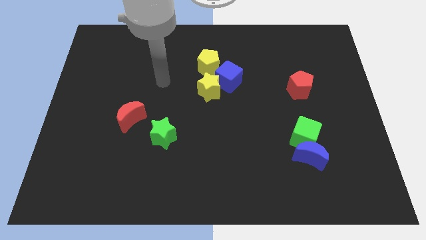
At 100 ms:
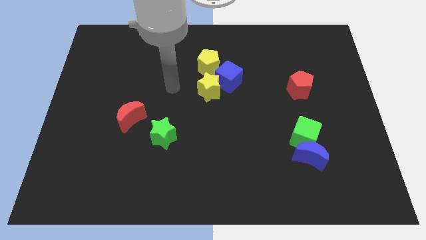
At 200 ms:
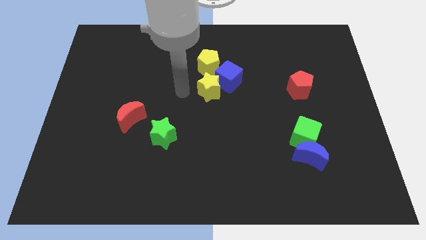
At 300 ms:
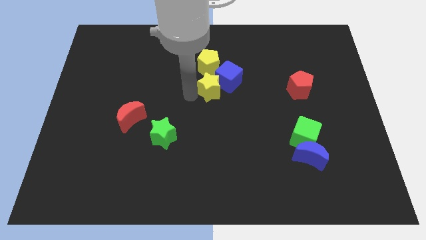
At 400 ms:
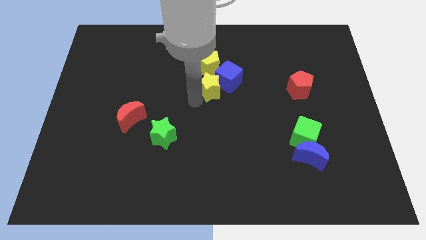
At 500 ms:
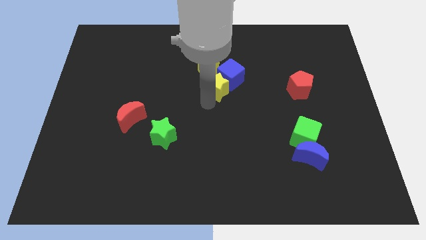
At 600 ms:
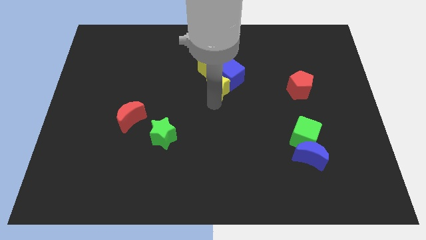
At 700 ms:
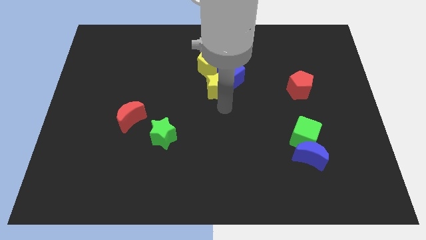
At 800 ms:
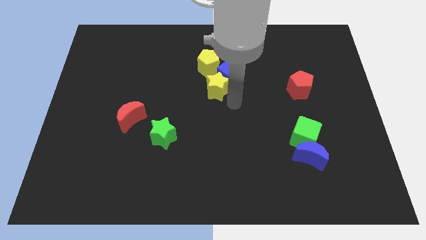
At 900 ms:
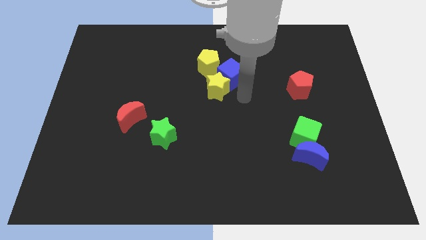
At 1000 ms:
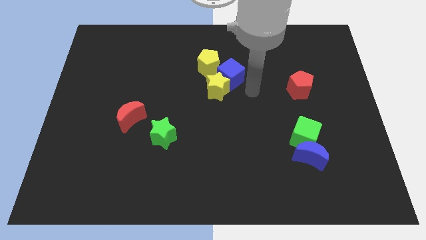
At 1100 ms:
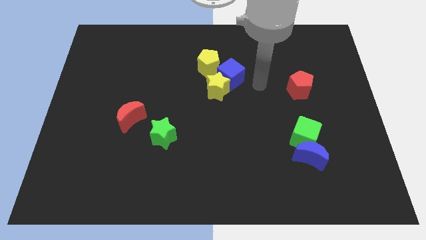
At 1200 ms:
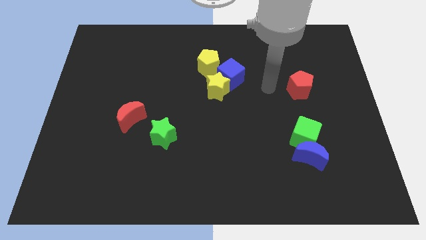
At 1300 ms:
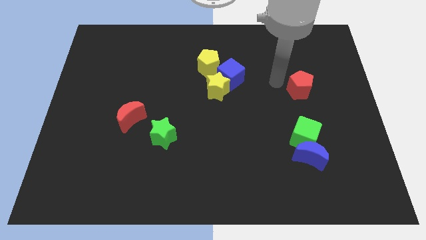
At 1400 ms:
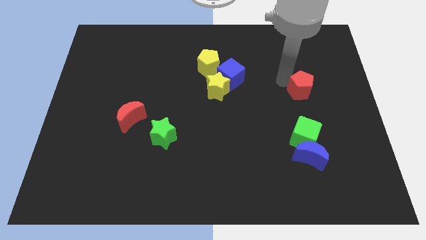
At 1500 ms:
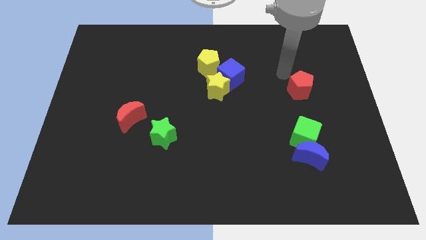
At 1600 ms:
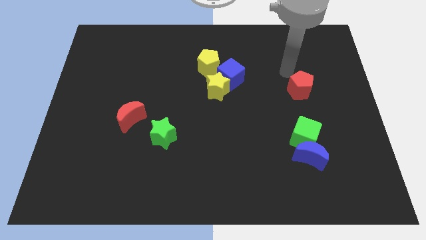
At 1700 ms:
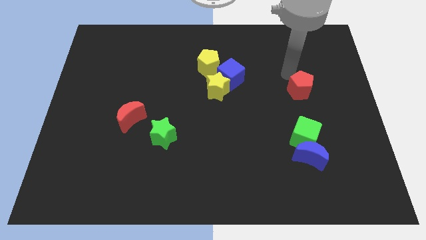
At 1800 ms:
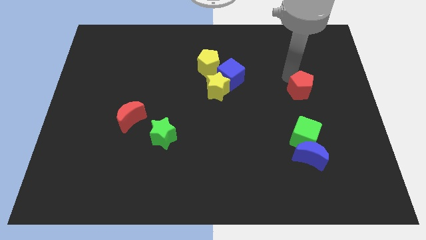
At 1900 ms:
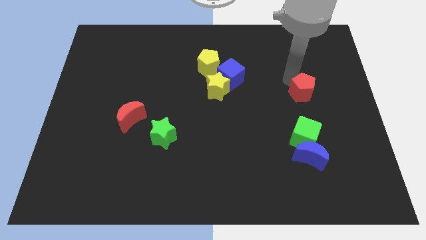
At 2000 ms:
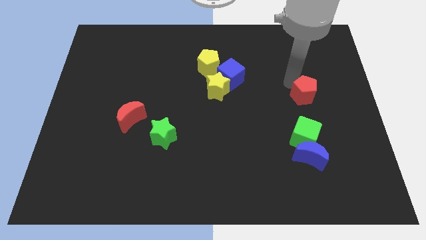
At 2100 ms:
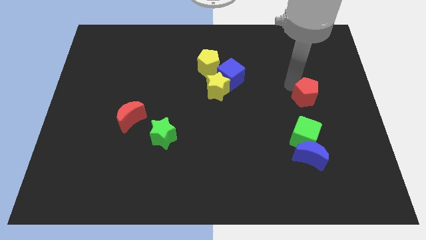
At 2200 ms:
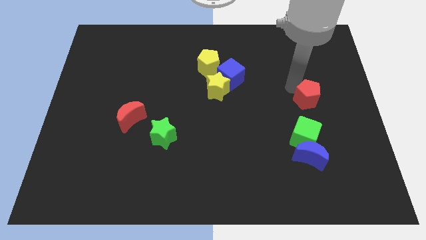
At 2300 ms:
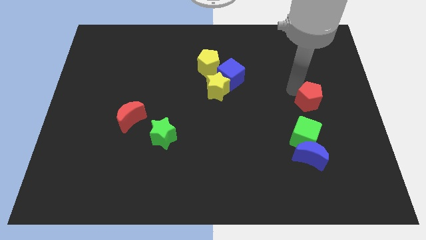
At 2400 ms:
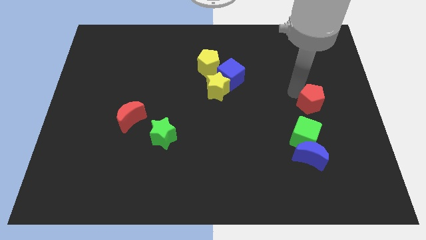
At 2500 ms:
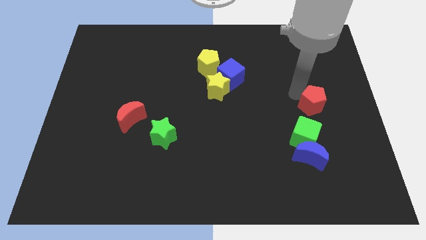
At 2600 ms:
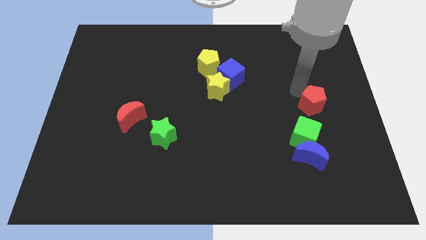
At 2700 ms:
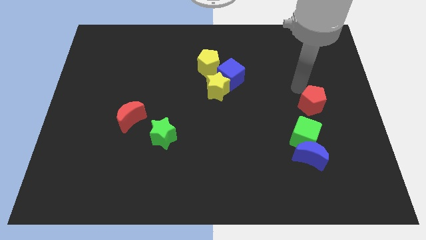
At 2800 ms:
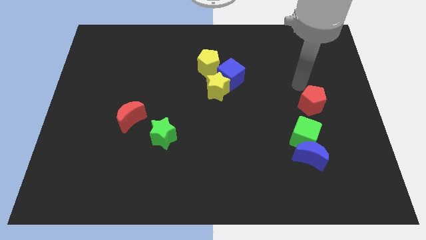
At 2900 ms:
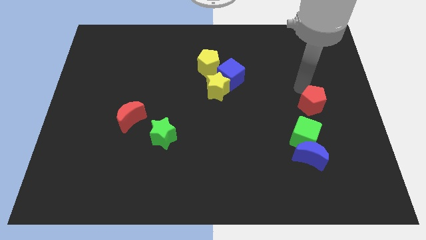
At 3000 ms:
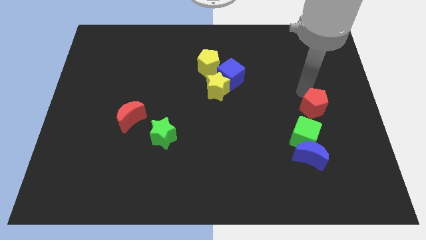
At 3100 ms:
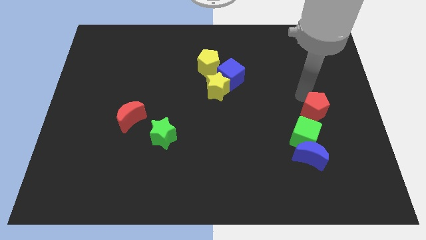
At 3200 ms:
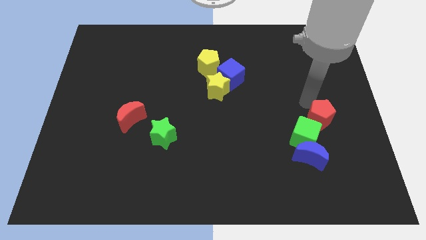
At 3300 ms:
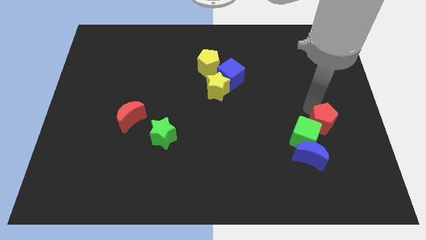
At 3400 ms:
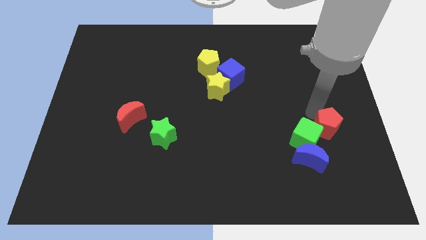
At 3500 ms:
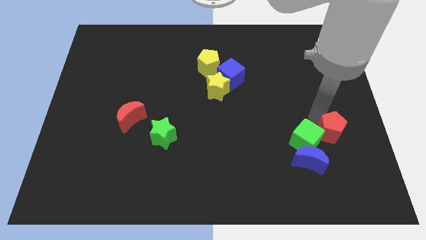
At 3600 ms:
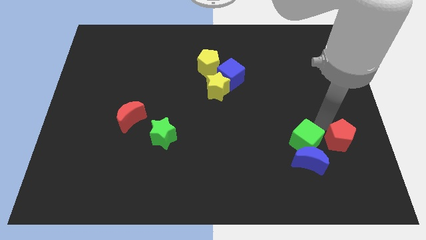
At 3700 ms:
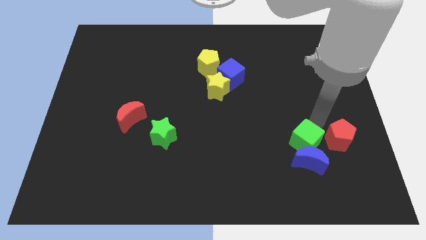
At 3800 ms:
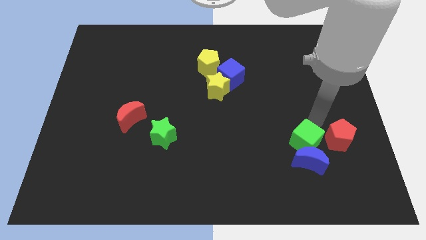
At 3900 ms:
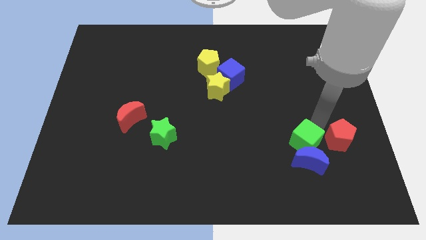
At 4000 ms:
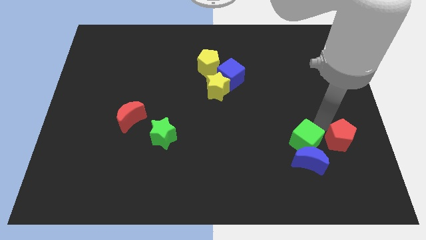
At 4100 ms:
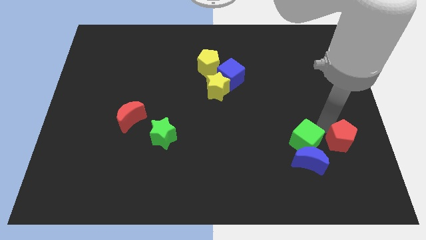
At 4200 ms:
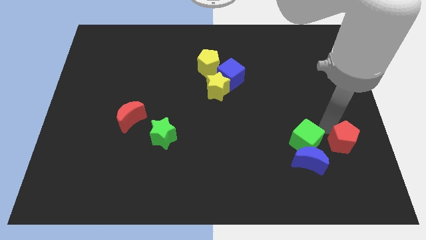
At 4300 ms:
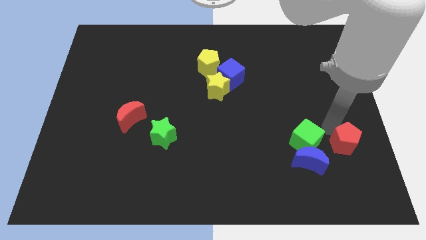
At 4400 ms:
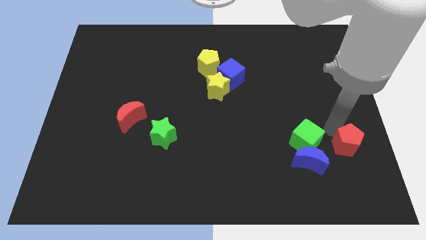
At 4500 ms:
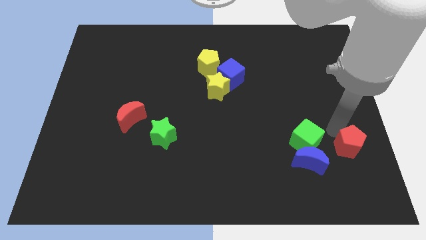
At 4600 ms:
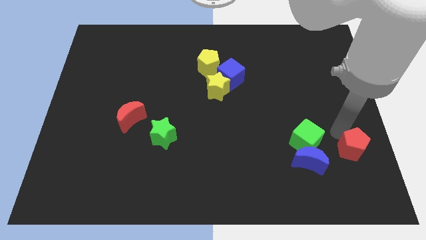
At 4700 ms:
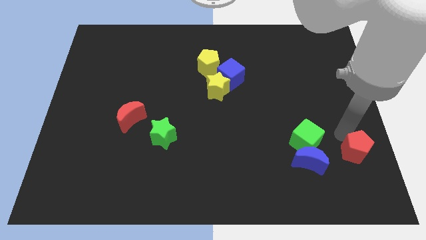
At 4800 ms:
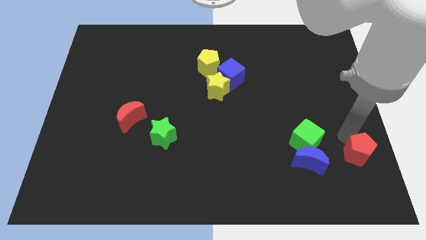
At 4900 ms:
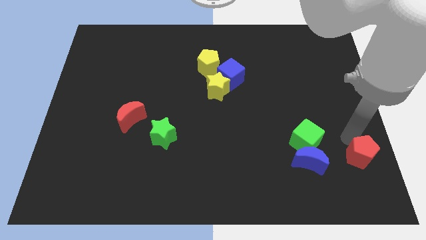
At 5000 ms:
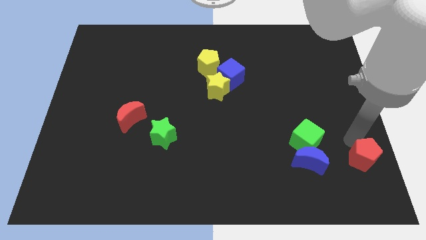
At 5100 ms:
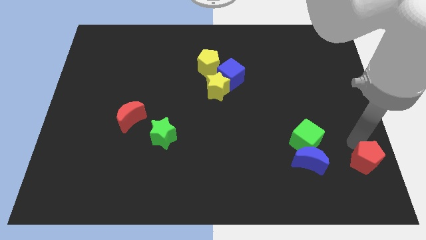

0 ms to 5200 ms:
slide the red pentagon to the bottom right of the board

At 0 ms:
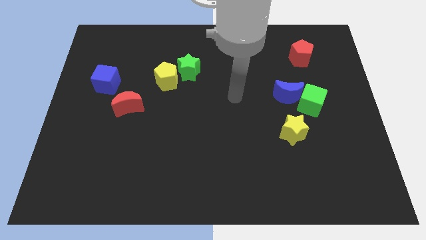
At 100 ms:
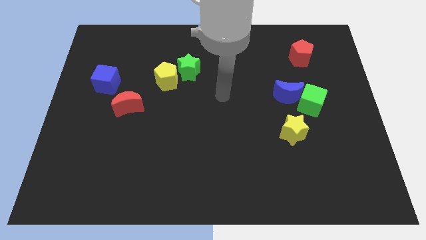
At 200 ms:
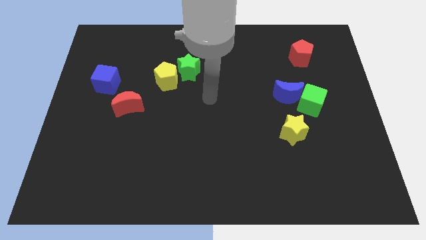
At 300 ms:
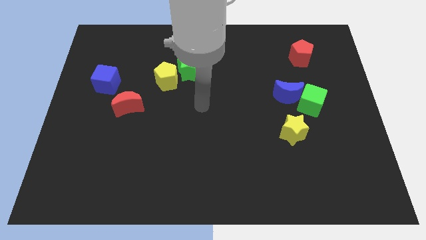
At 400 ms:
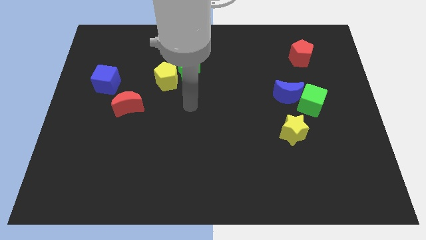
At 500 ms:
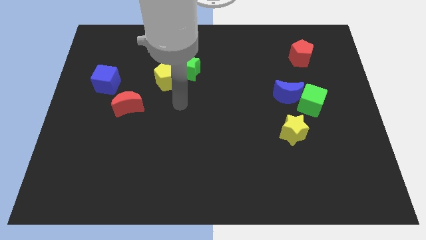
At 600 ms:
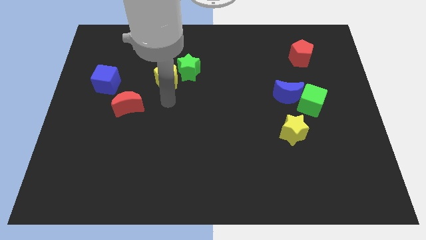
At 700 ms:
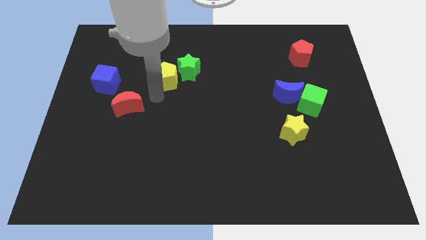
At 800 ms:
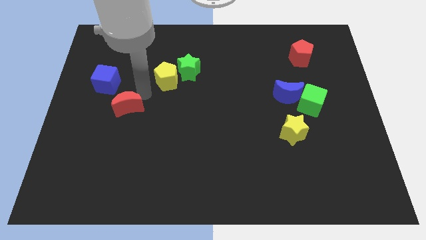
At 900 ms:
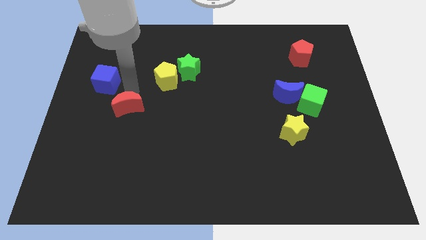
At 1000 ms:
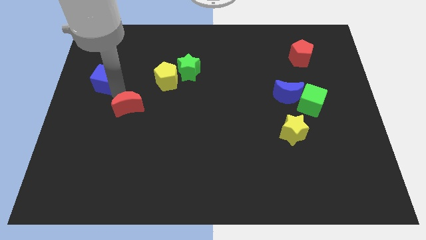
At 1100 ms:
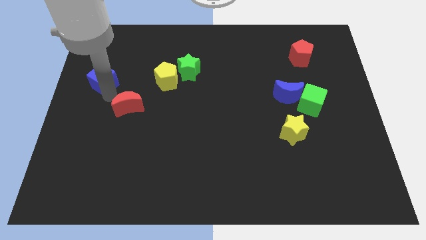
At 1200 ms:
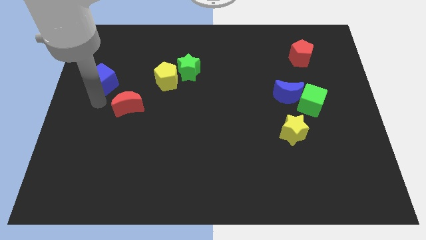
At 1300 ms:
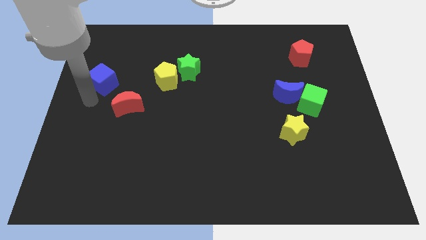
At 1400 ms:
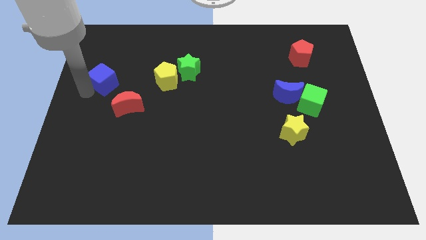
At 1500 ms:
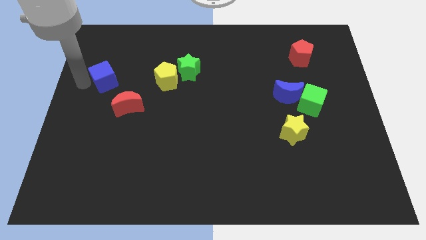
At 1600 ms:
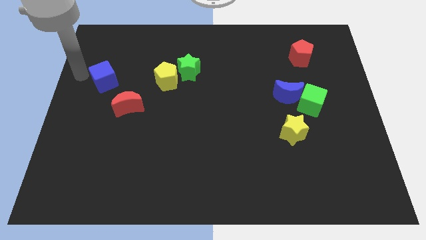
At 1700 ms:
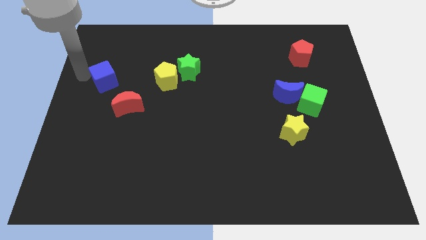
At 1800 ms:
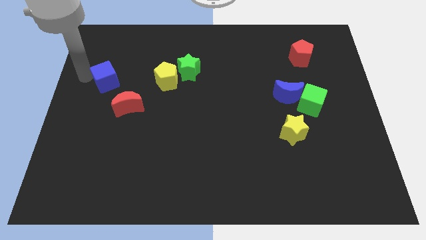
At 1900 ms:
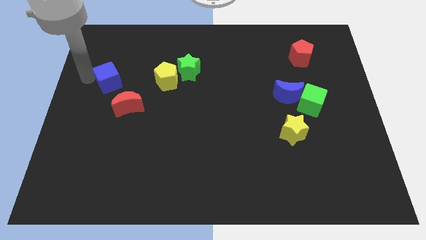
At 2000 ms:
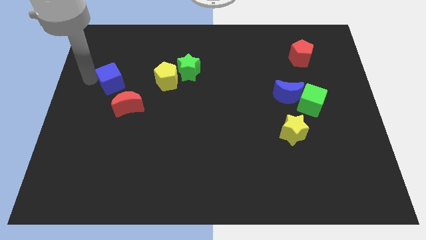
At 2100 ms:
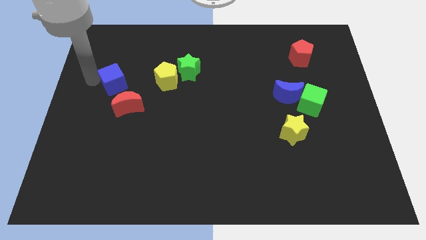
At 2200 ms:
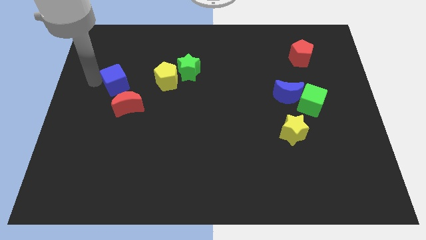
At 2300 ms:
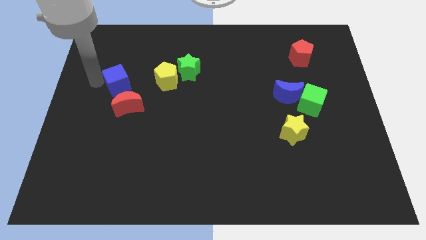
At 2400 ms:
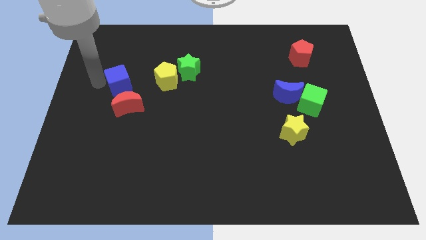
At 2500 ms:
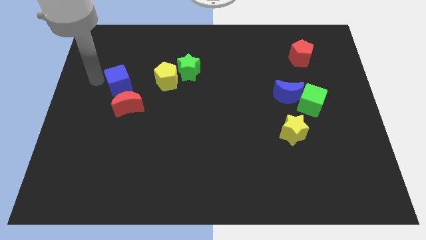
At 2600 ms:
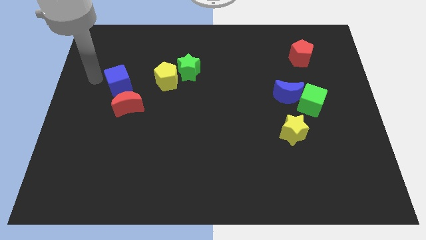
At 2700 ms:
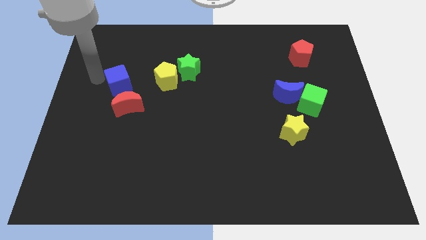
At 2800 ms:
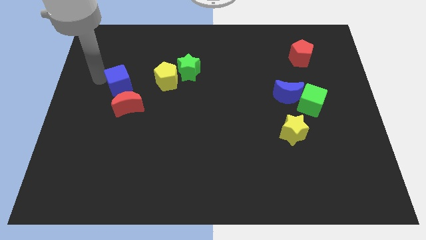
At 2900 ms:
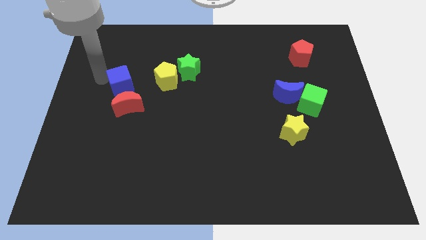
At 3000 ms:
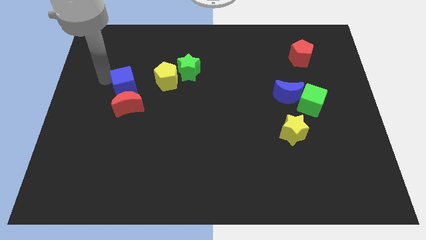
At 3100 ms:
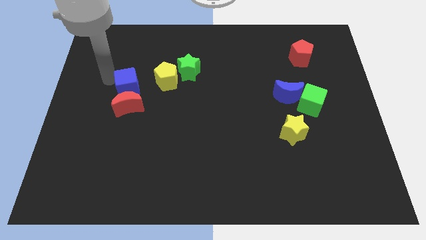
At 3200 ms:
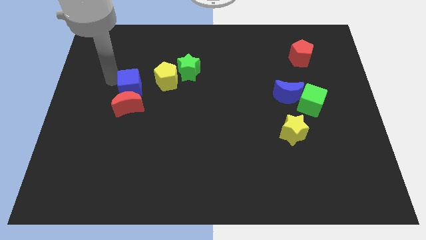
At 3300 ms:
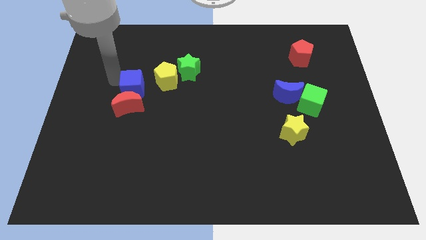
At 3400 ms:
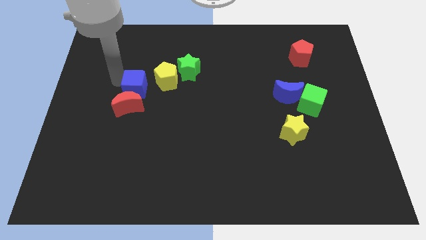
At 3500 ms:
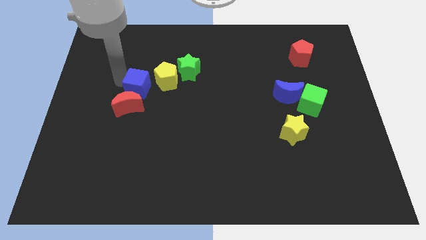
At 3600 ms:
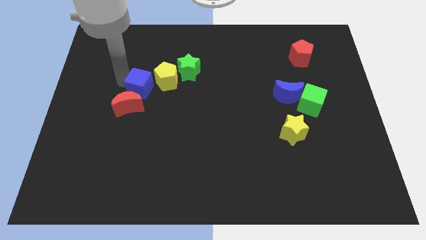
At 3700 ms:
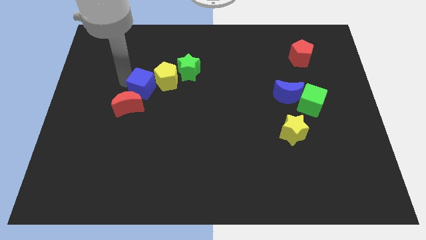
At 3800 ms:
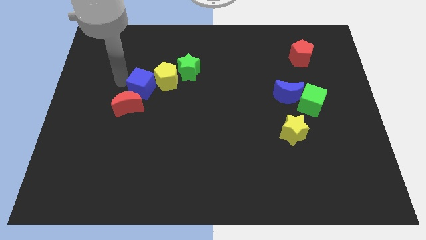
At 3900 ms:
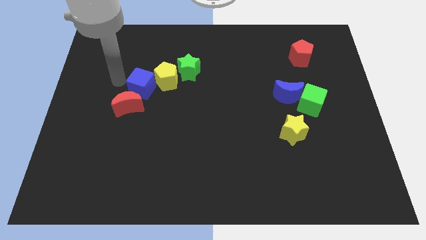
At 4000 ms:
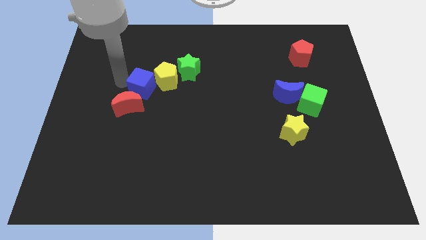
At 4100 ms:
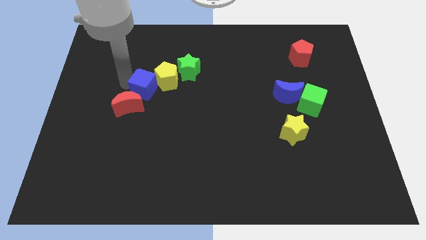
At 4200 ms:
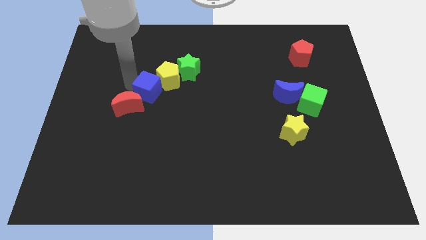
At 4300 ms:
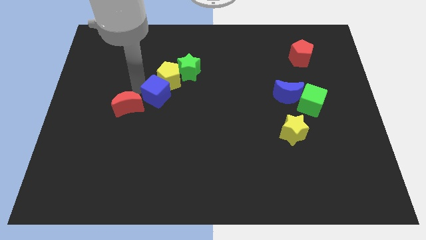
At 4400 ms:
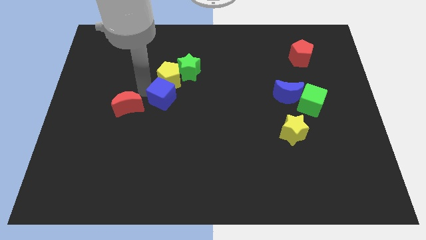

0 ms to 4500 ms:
move the blue cube to the middle
